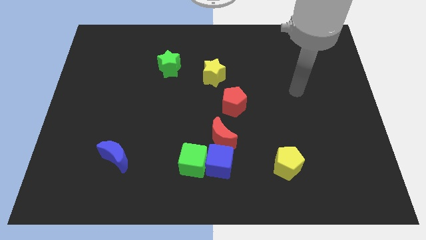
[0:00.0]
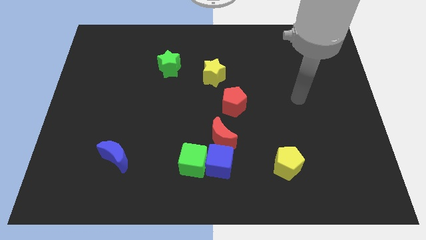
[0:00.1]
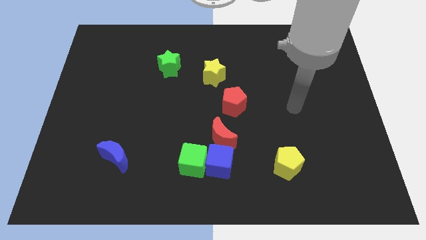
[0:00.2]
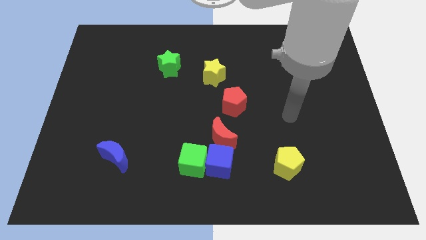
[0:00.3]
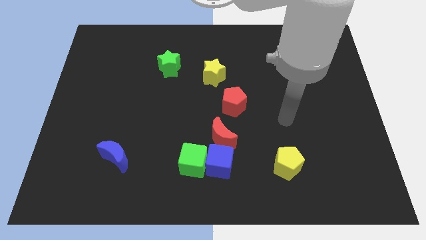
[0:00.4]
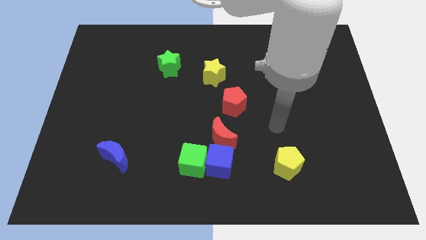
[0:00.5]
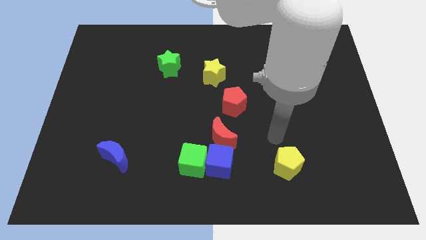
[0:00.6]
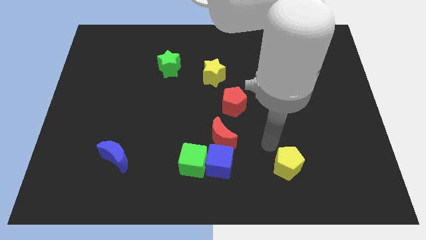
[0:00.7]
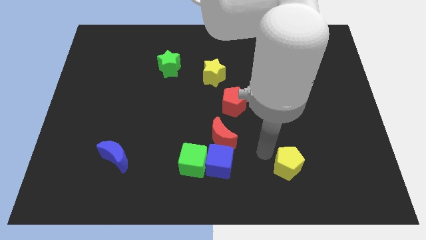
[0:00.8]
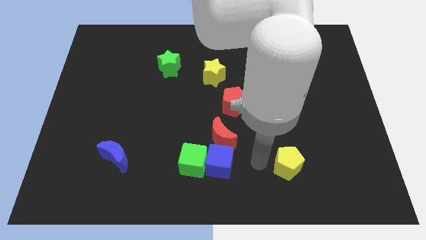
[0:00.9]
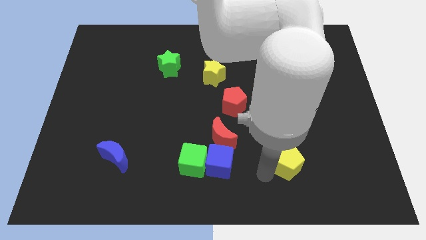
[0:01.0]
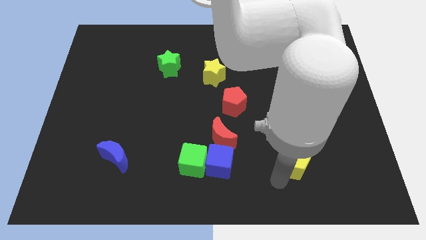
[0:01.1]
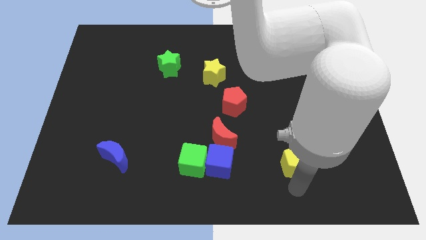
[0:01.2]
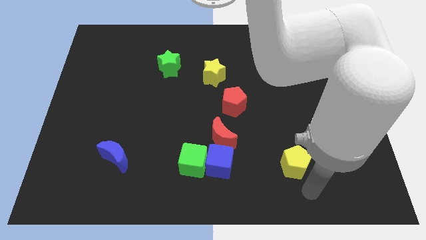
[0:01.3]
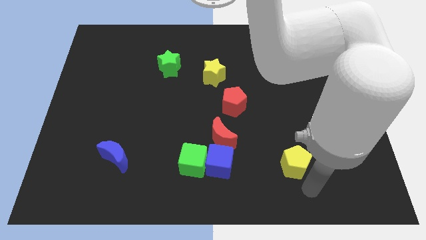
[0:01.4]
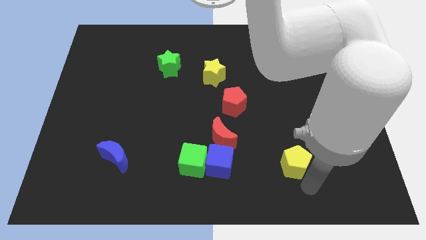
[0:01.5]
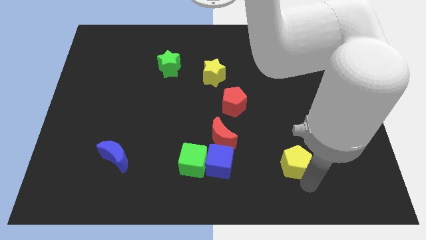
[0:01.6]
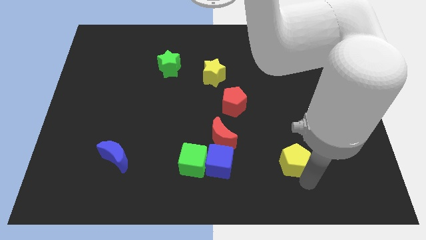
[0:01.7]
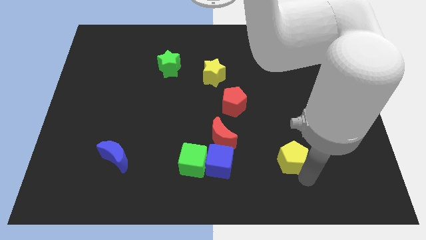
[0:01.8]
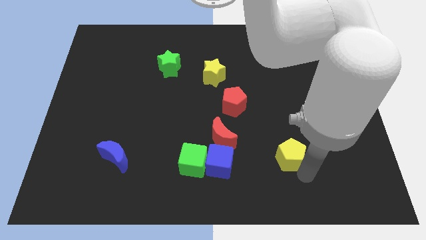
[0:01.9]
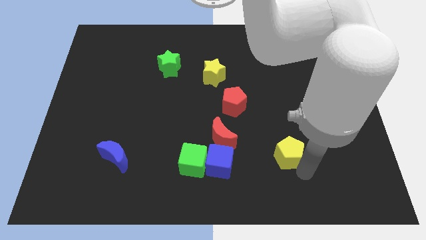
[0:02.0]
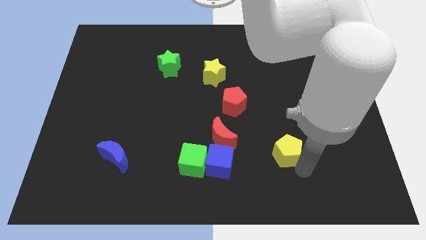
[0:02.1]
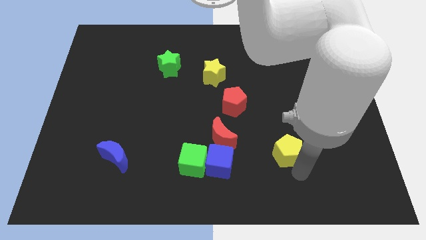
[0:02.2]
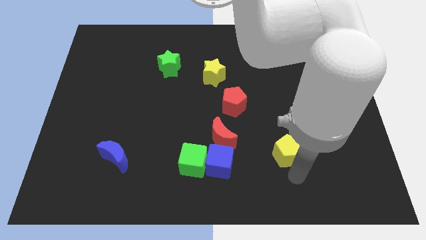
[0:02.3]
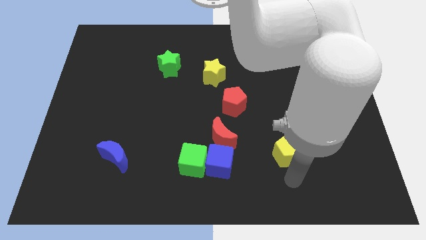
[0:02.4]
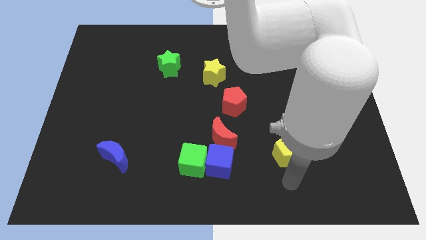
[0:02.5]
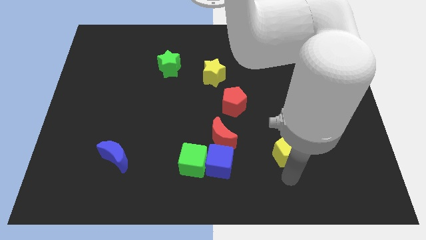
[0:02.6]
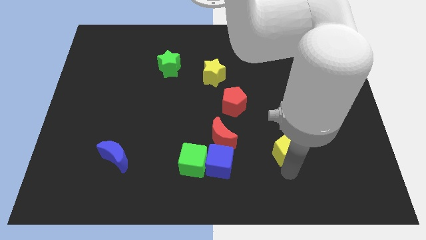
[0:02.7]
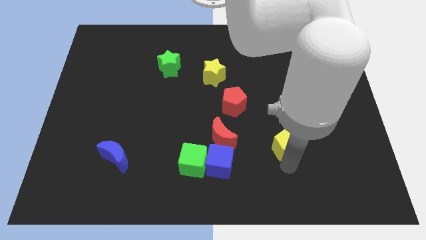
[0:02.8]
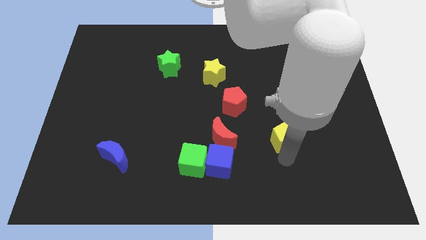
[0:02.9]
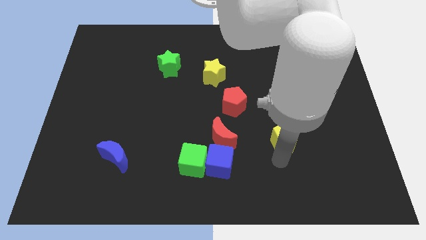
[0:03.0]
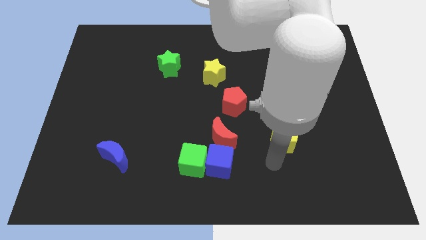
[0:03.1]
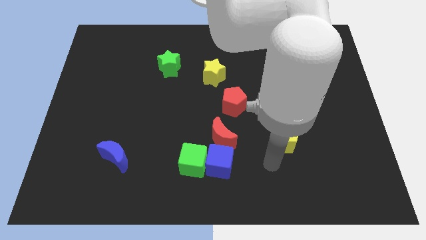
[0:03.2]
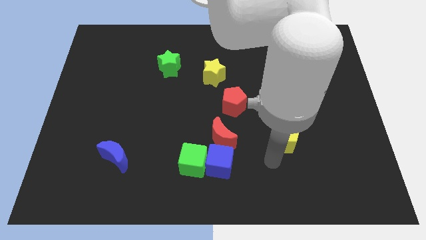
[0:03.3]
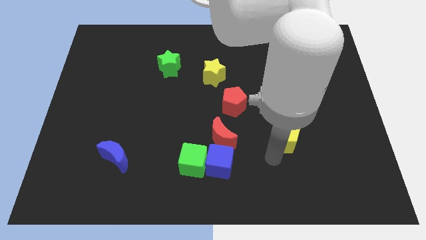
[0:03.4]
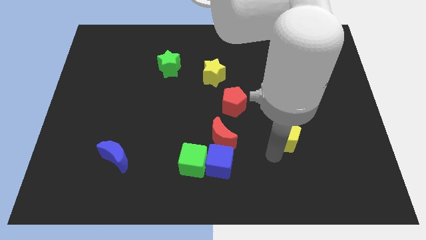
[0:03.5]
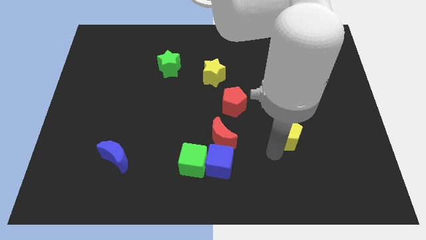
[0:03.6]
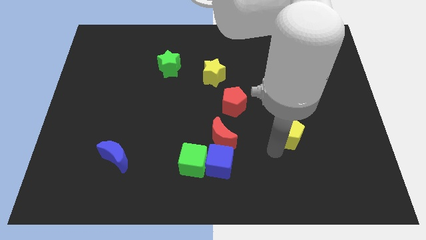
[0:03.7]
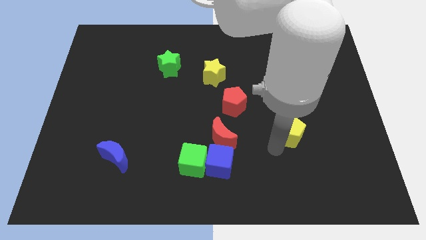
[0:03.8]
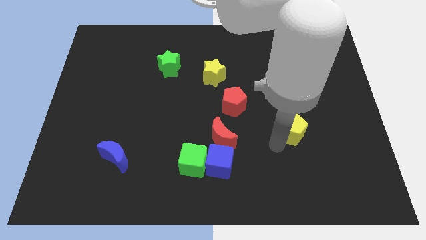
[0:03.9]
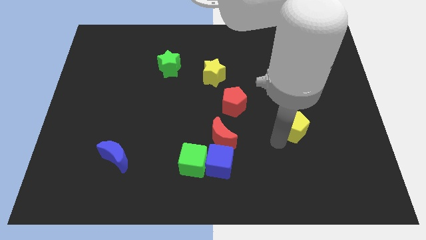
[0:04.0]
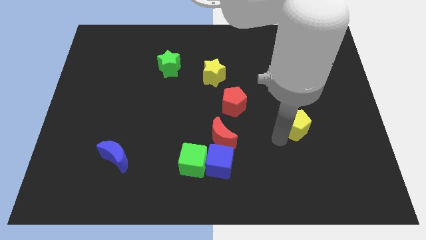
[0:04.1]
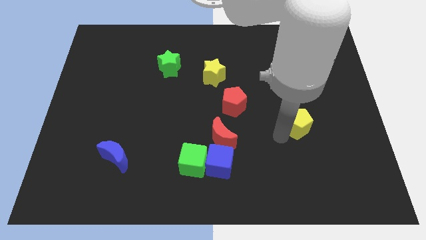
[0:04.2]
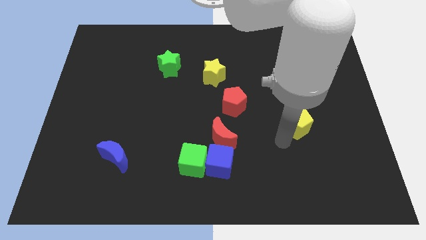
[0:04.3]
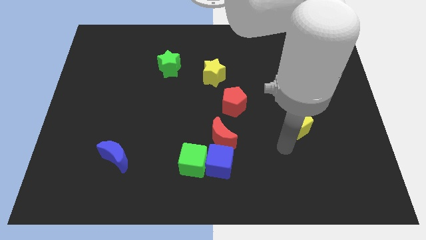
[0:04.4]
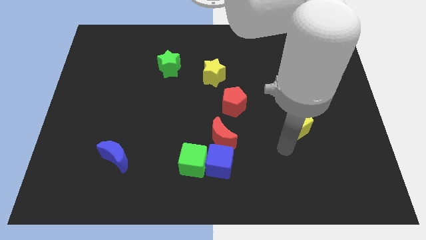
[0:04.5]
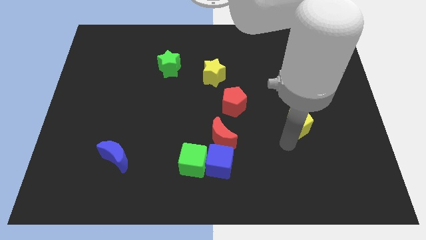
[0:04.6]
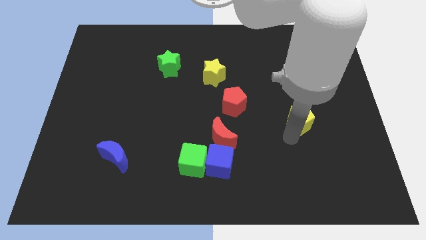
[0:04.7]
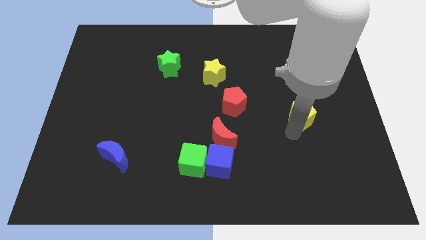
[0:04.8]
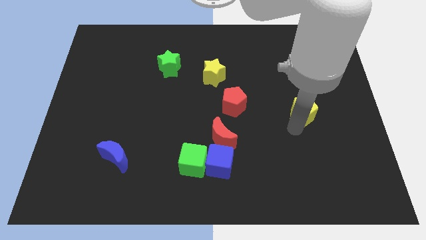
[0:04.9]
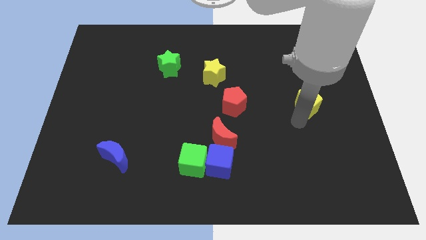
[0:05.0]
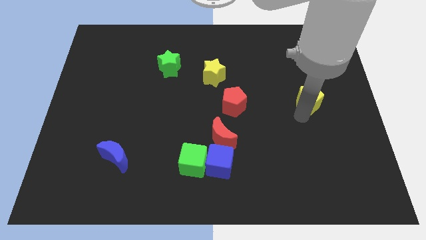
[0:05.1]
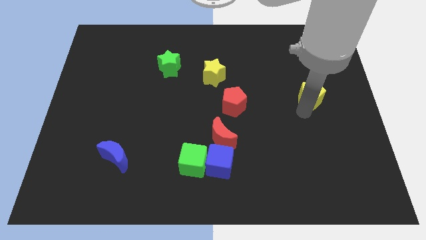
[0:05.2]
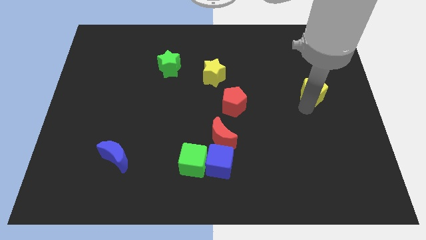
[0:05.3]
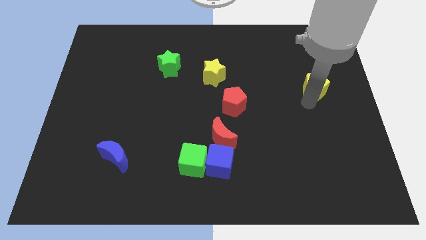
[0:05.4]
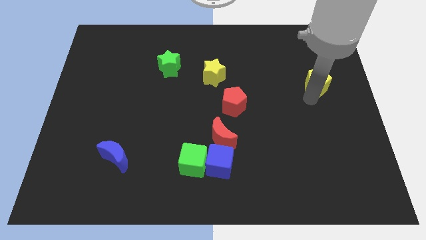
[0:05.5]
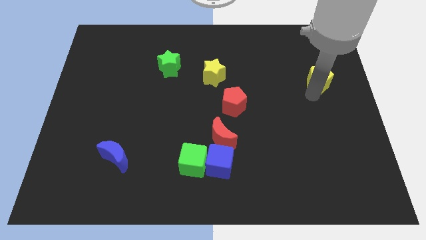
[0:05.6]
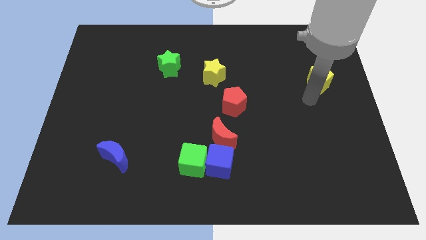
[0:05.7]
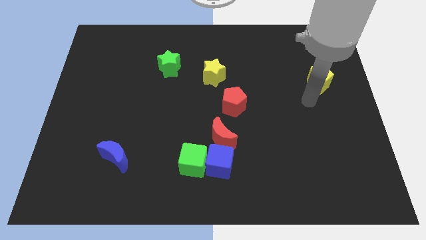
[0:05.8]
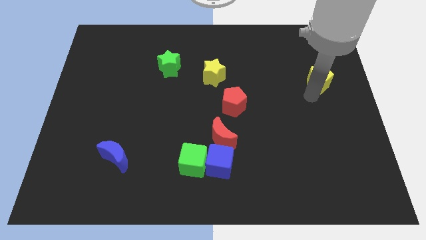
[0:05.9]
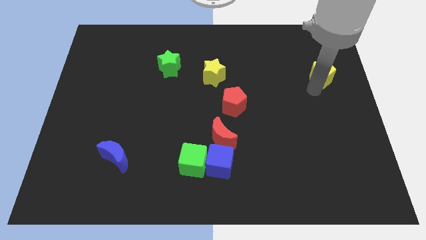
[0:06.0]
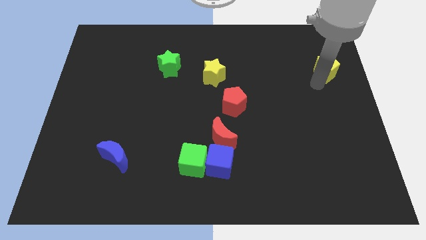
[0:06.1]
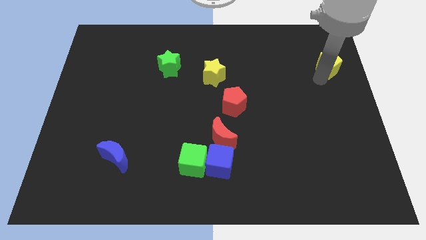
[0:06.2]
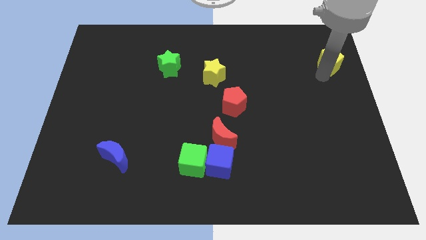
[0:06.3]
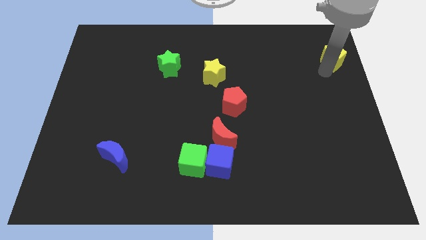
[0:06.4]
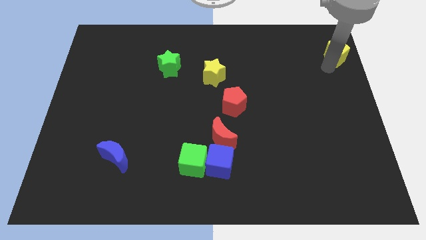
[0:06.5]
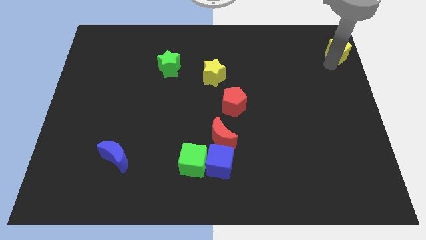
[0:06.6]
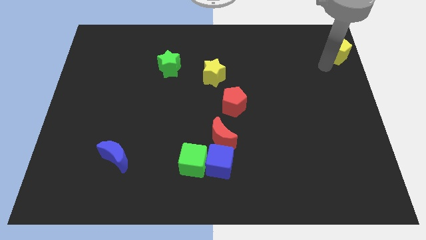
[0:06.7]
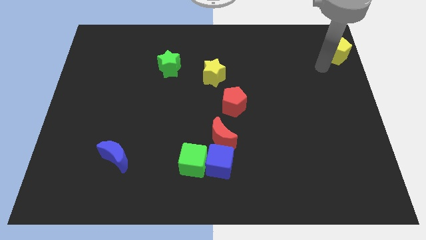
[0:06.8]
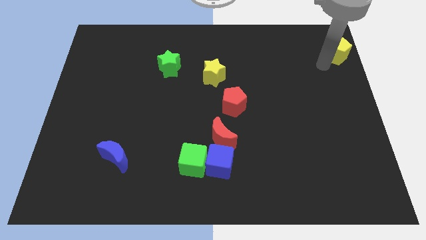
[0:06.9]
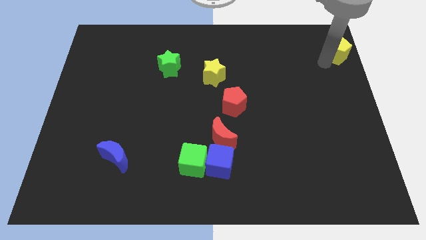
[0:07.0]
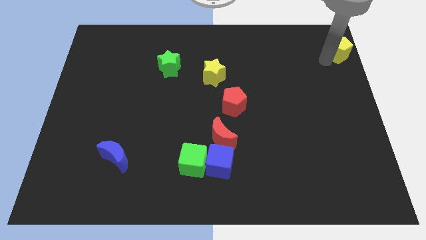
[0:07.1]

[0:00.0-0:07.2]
push the yellow pentagon to the top right
